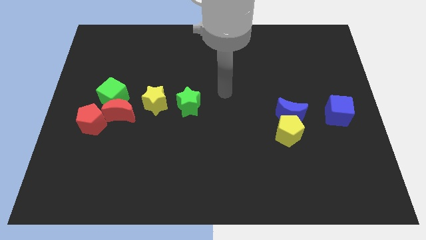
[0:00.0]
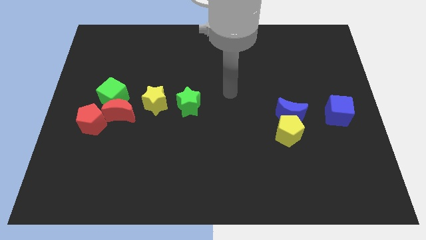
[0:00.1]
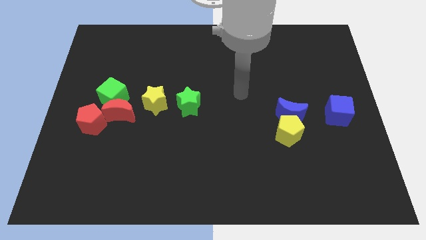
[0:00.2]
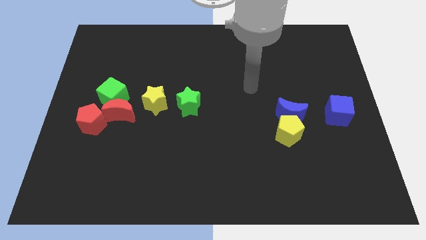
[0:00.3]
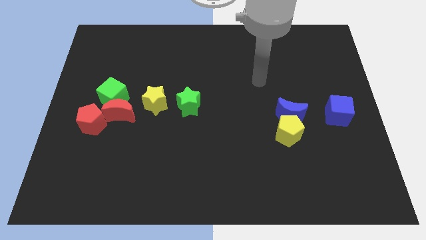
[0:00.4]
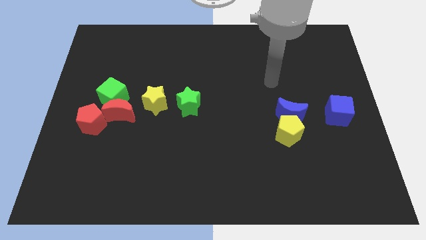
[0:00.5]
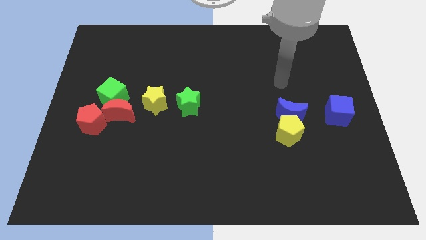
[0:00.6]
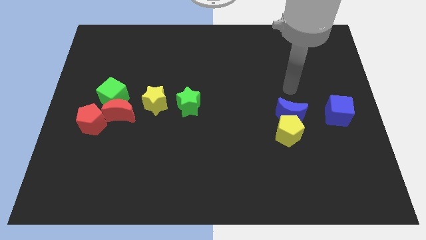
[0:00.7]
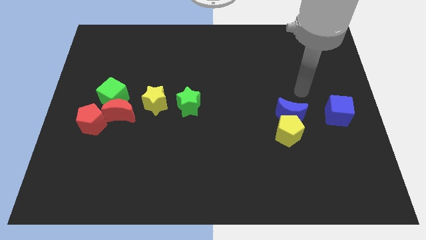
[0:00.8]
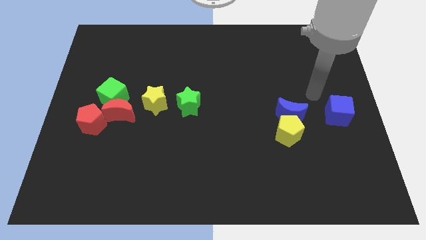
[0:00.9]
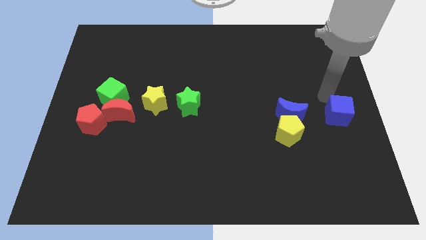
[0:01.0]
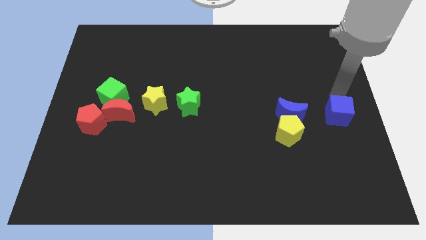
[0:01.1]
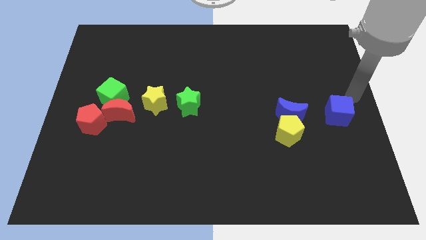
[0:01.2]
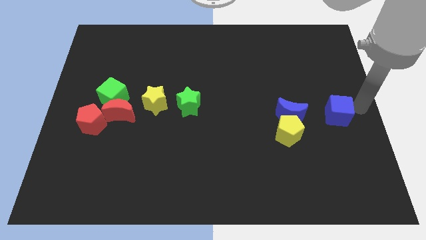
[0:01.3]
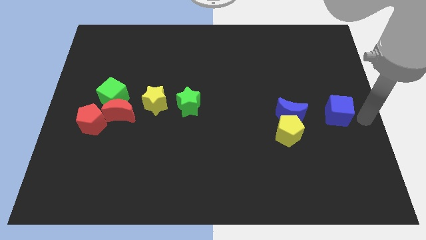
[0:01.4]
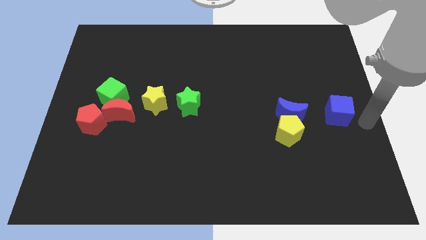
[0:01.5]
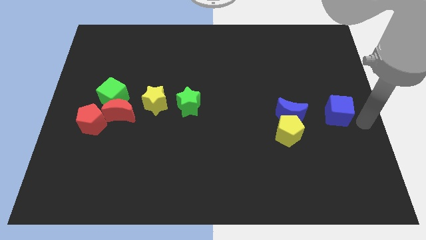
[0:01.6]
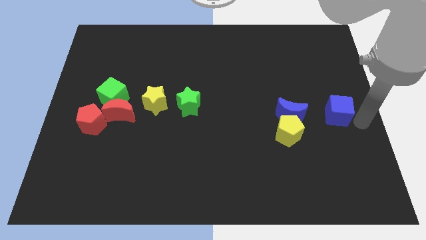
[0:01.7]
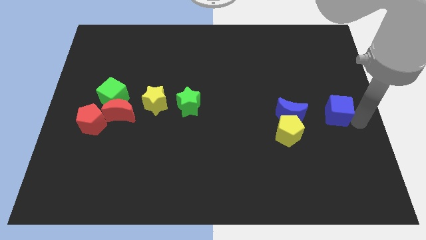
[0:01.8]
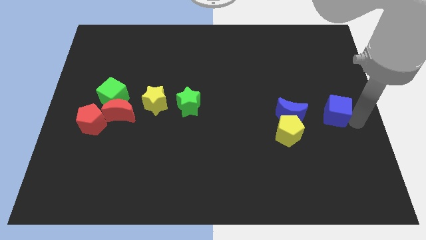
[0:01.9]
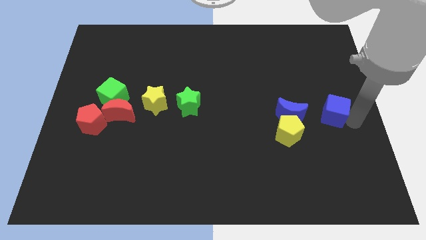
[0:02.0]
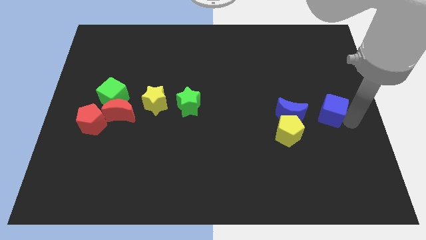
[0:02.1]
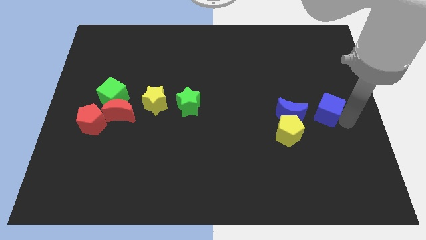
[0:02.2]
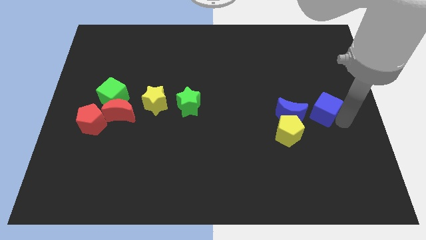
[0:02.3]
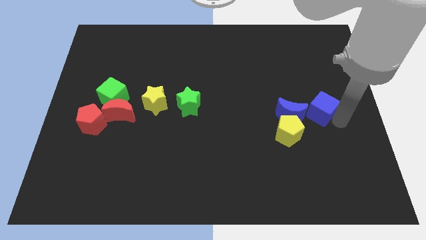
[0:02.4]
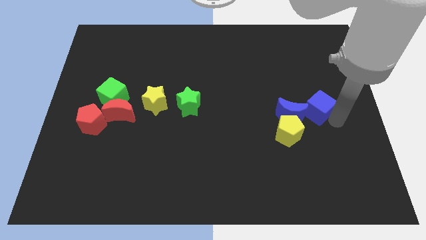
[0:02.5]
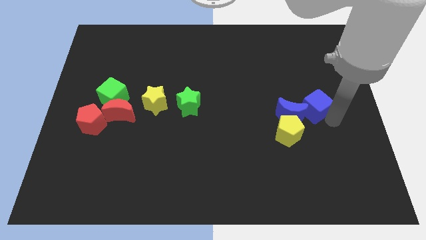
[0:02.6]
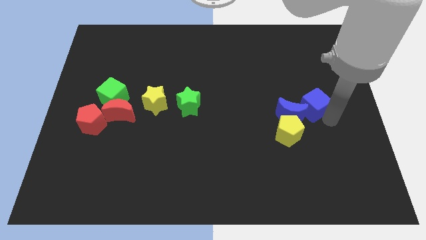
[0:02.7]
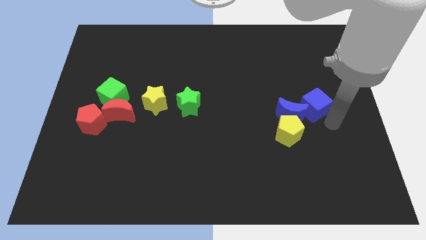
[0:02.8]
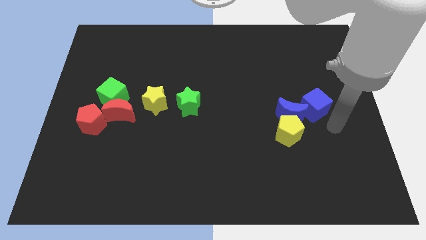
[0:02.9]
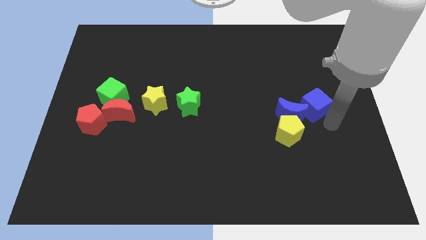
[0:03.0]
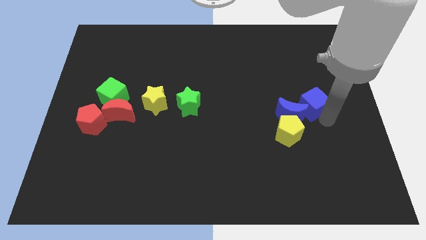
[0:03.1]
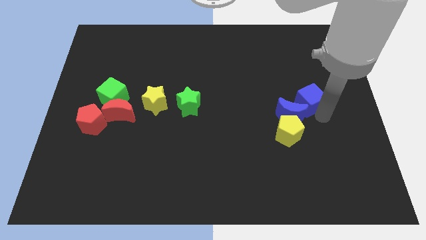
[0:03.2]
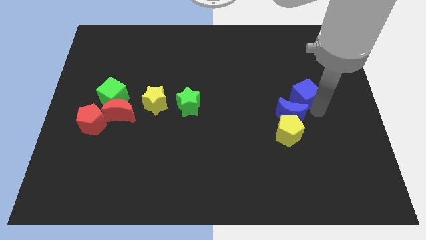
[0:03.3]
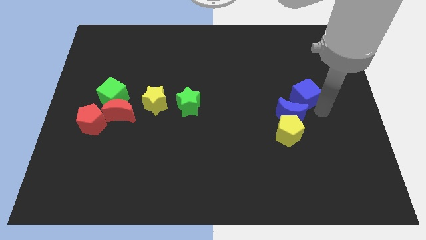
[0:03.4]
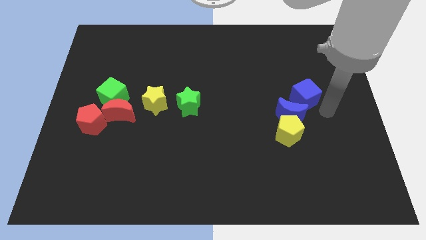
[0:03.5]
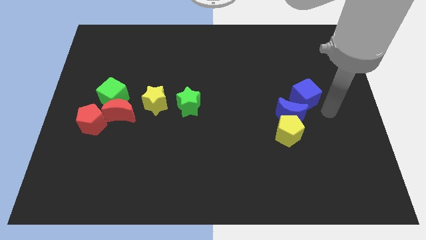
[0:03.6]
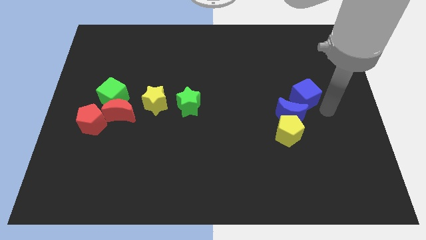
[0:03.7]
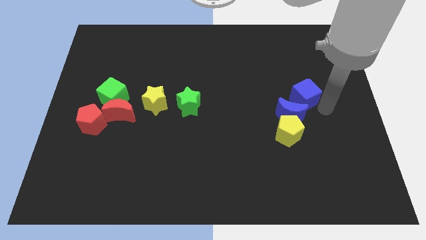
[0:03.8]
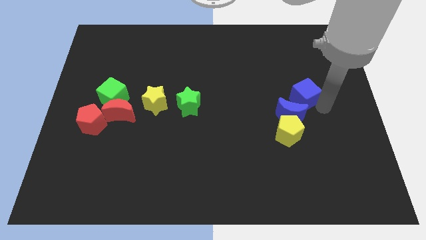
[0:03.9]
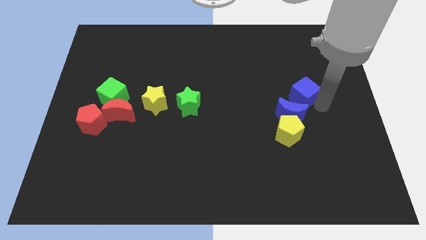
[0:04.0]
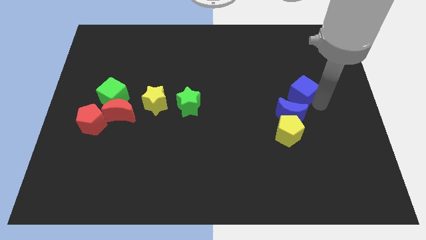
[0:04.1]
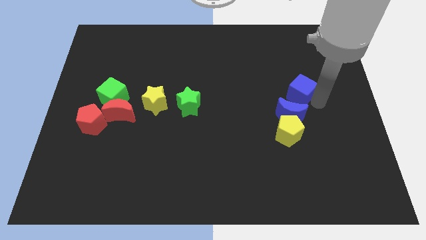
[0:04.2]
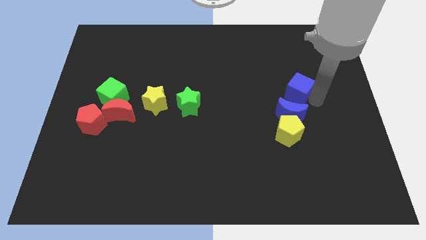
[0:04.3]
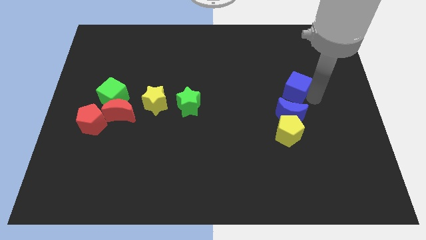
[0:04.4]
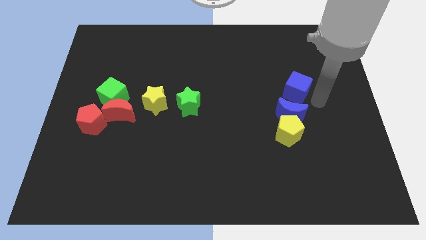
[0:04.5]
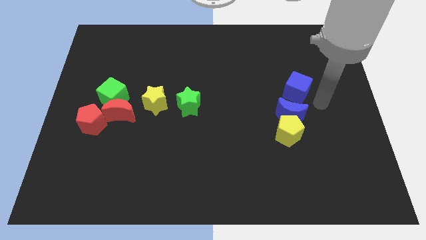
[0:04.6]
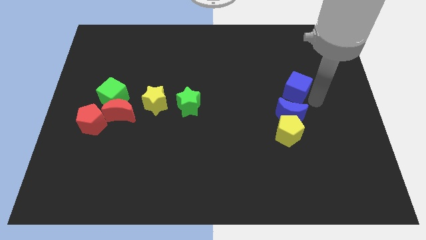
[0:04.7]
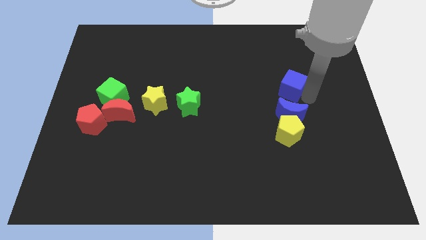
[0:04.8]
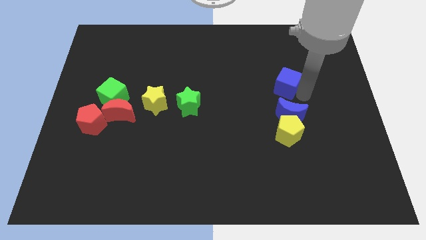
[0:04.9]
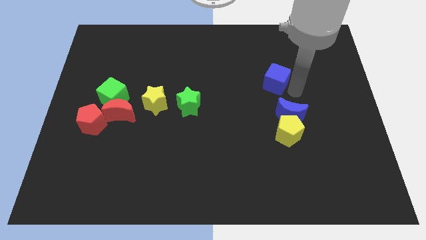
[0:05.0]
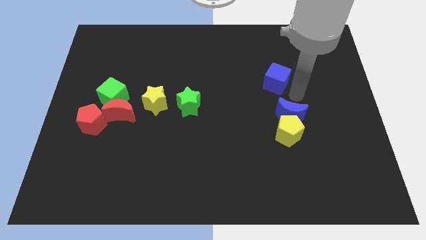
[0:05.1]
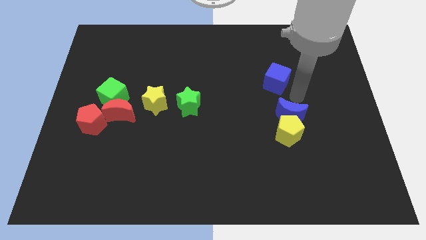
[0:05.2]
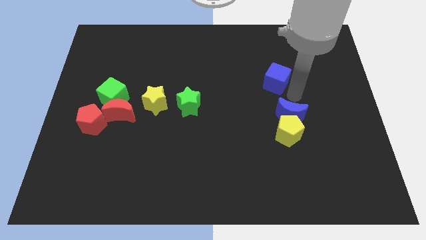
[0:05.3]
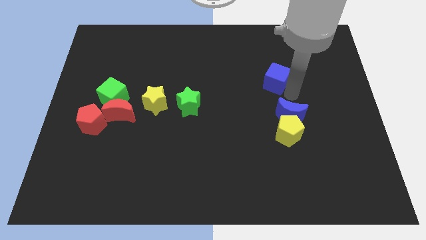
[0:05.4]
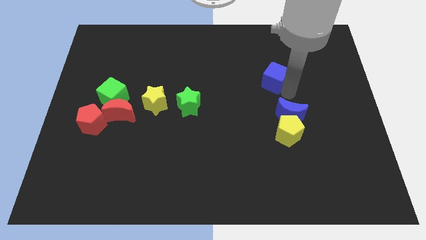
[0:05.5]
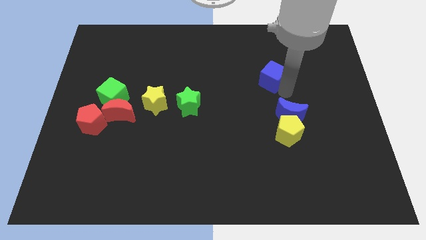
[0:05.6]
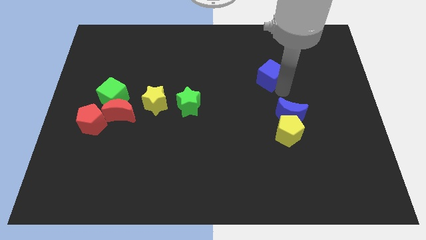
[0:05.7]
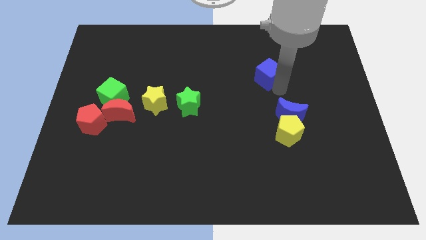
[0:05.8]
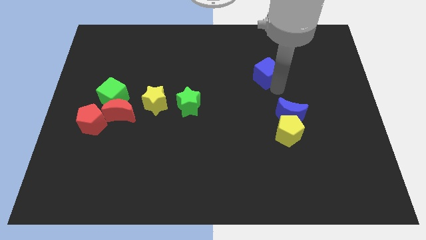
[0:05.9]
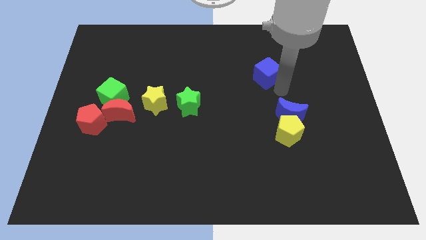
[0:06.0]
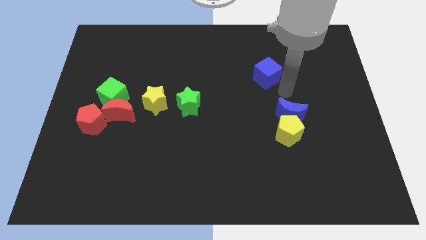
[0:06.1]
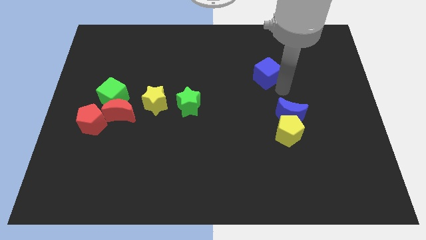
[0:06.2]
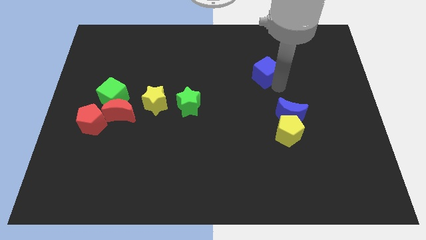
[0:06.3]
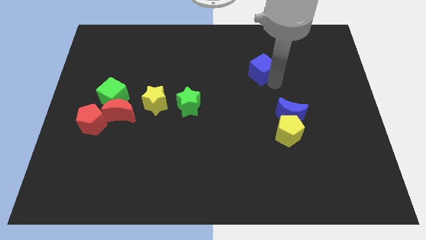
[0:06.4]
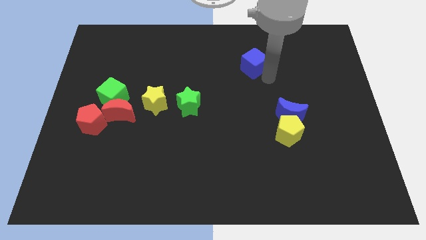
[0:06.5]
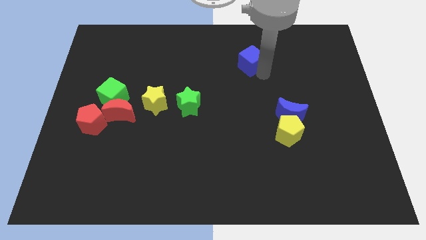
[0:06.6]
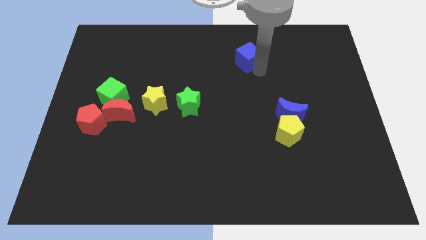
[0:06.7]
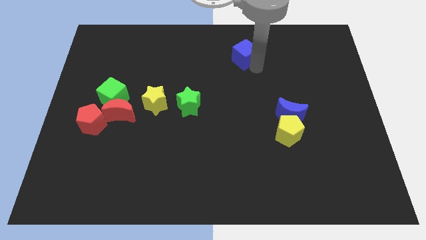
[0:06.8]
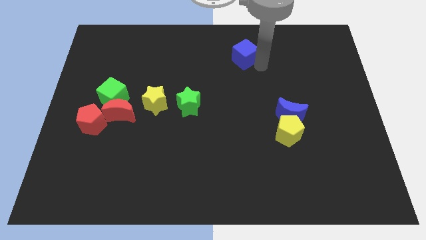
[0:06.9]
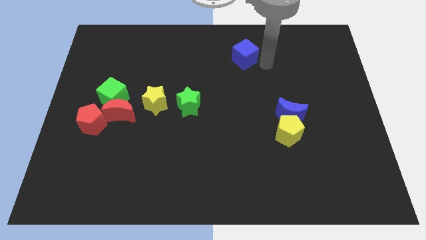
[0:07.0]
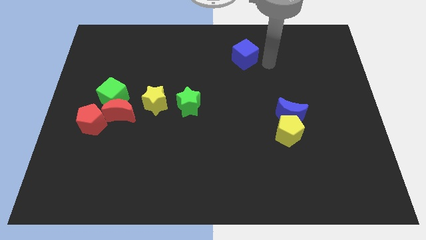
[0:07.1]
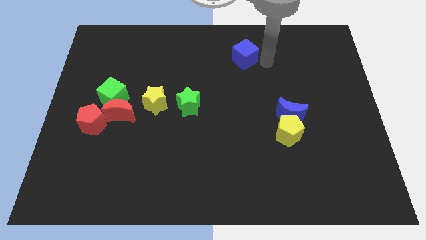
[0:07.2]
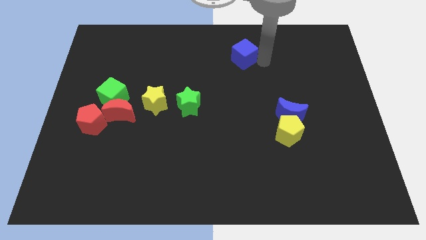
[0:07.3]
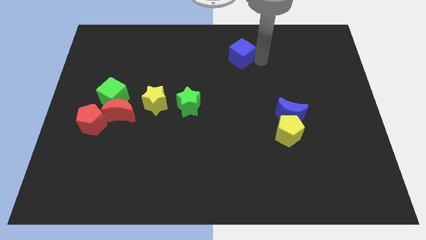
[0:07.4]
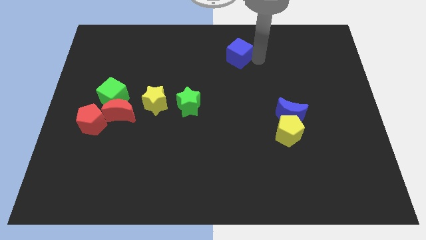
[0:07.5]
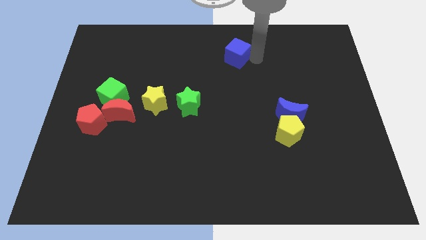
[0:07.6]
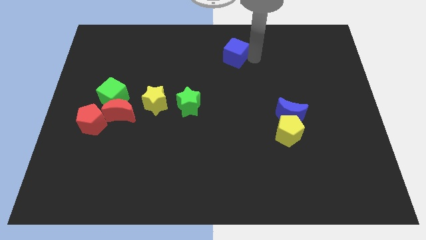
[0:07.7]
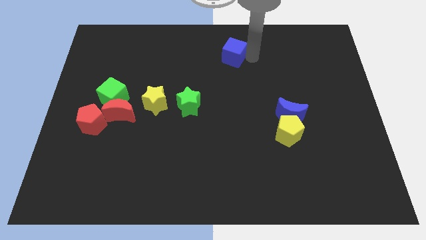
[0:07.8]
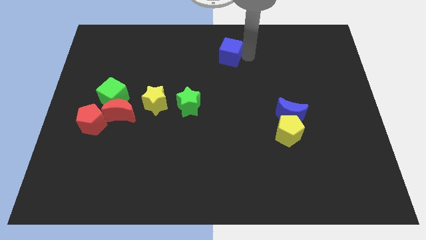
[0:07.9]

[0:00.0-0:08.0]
move the blue cube to the towards your base
